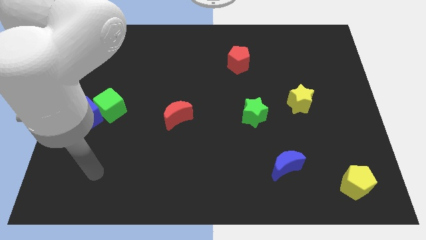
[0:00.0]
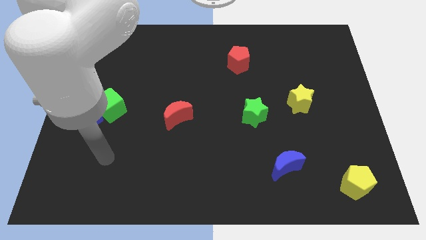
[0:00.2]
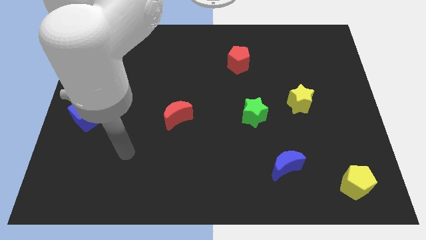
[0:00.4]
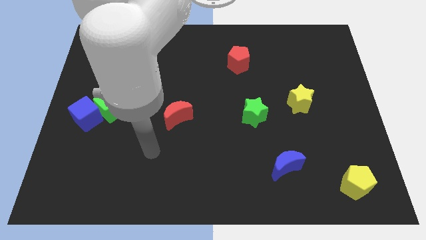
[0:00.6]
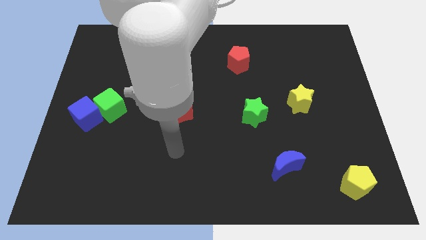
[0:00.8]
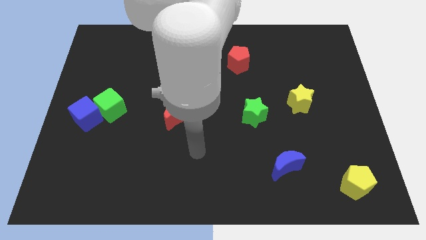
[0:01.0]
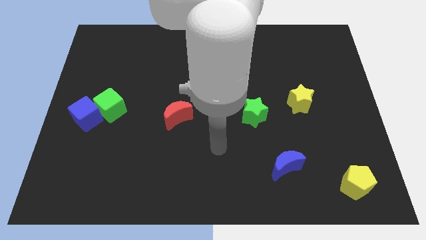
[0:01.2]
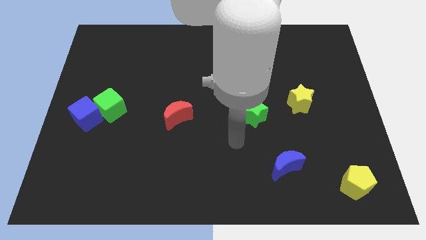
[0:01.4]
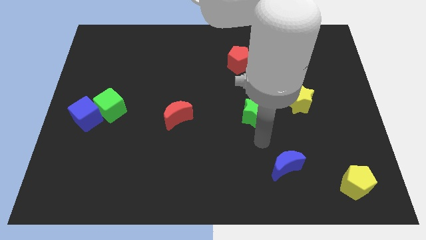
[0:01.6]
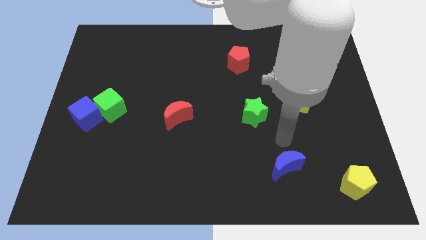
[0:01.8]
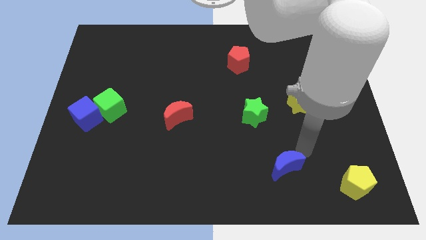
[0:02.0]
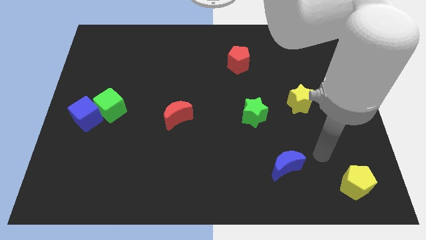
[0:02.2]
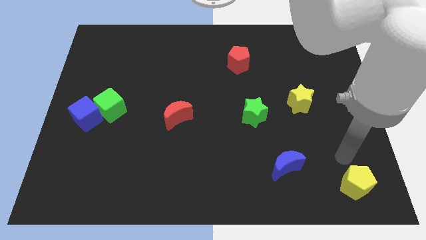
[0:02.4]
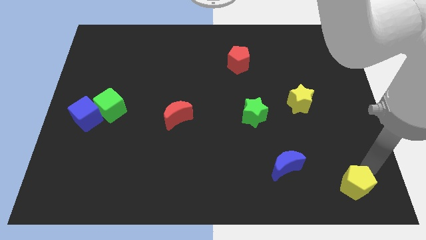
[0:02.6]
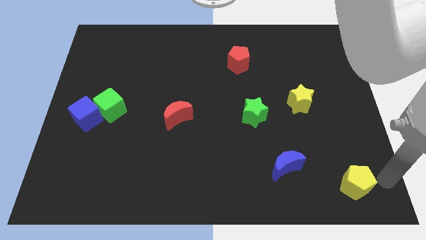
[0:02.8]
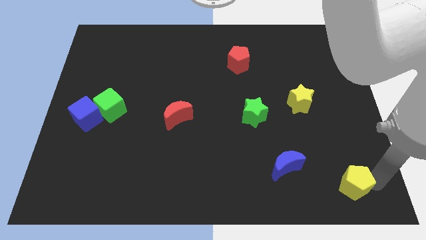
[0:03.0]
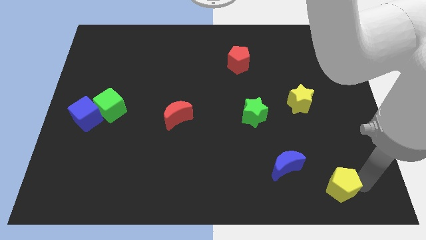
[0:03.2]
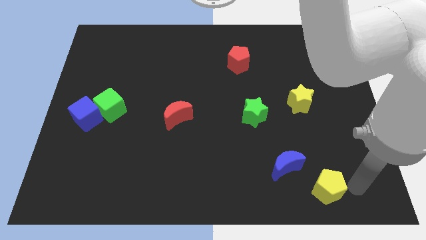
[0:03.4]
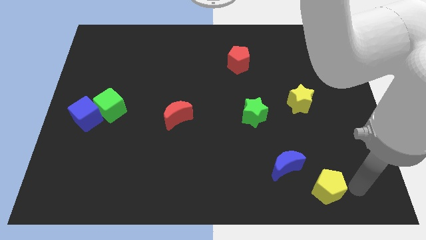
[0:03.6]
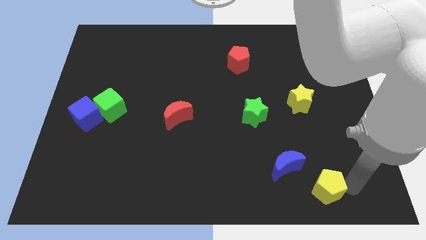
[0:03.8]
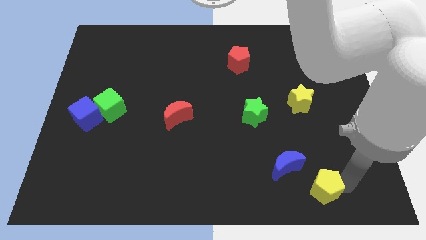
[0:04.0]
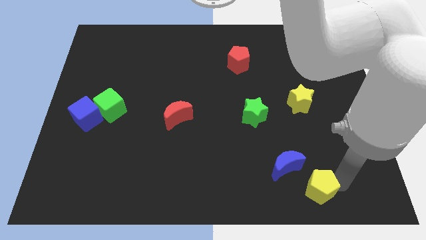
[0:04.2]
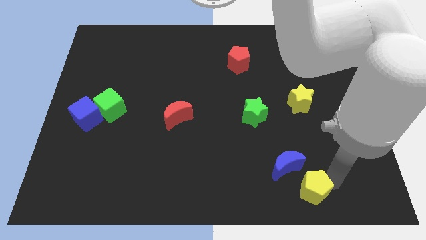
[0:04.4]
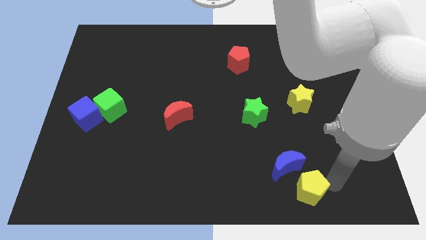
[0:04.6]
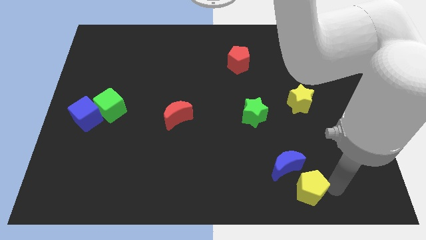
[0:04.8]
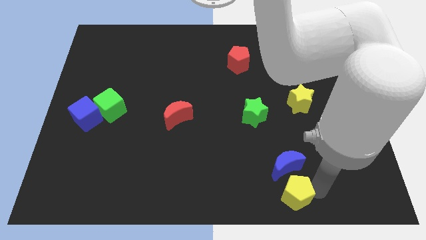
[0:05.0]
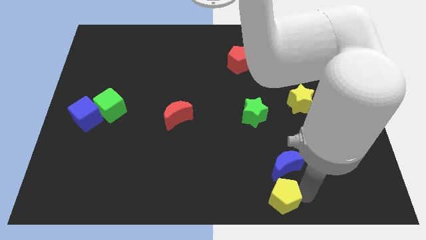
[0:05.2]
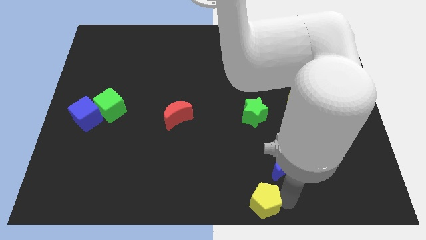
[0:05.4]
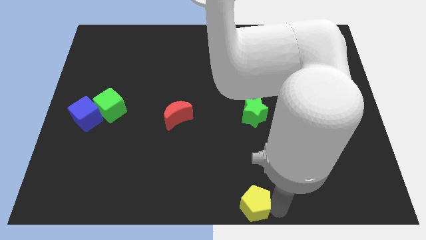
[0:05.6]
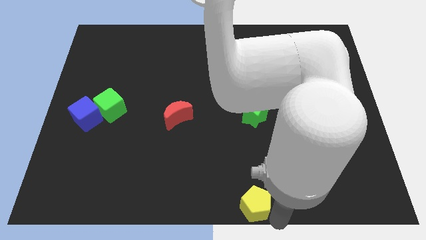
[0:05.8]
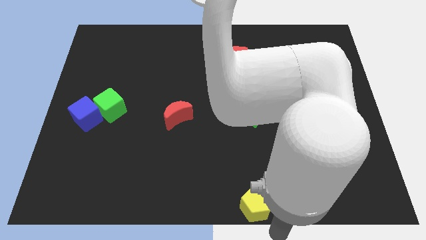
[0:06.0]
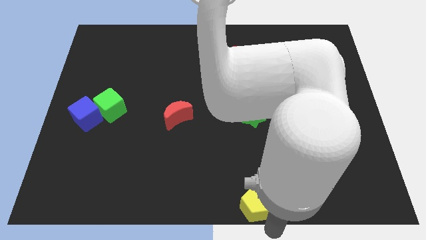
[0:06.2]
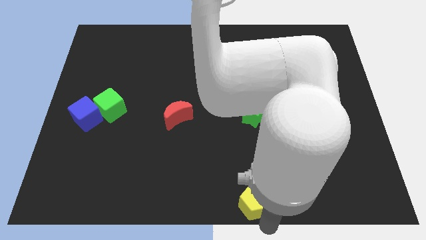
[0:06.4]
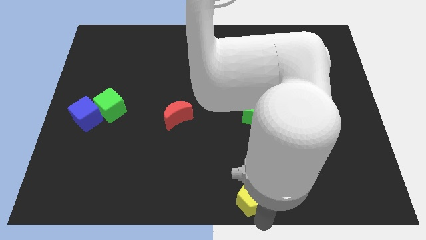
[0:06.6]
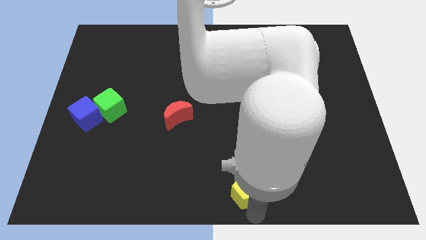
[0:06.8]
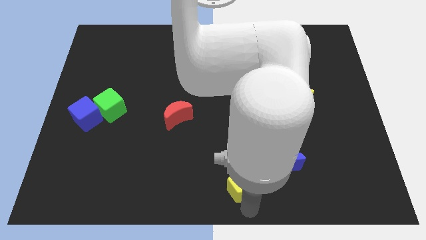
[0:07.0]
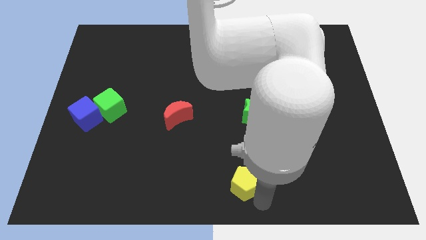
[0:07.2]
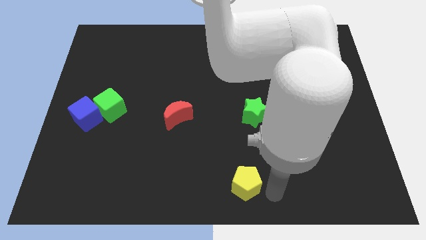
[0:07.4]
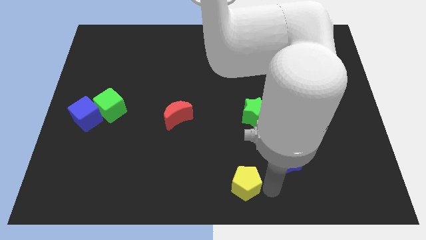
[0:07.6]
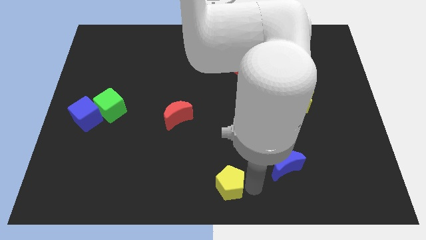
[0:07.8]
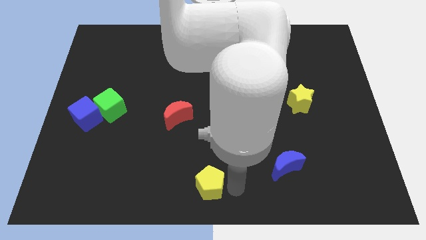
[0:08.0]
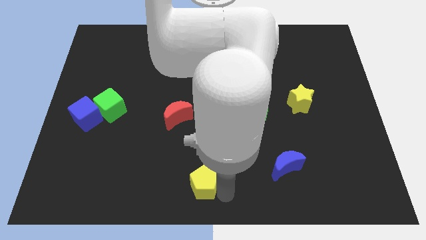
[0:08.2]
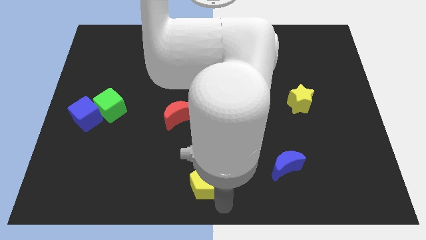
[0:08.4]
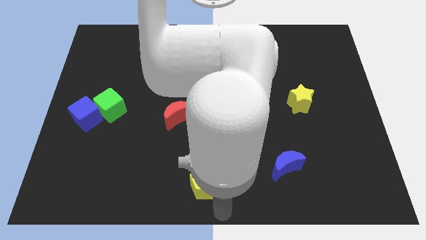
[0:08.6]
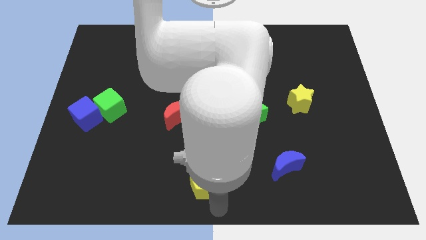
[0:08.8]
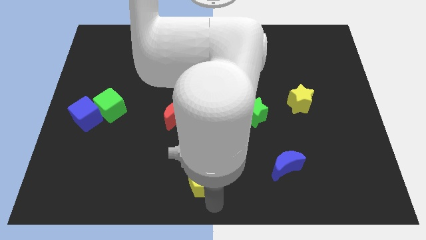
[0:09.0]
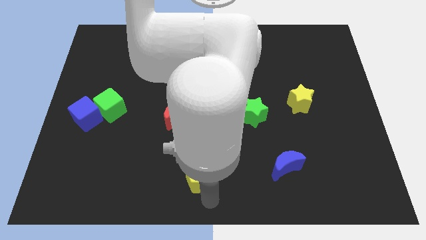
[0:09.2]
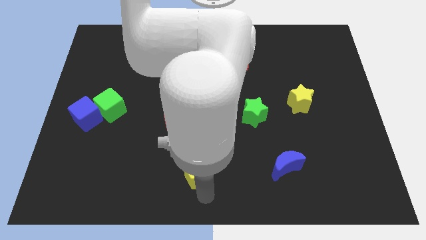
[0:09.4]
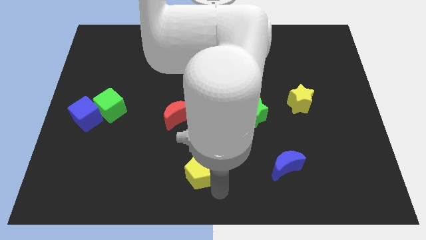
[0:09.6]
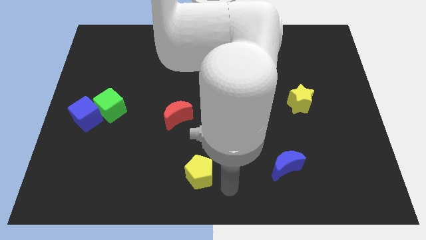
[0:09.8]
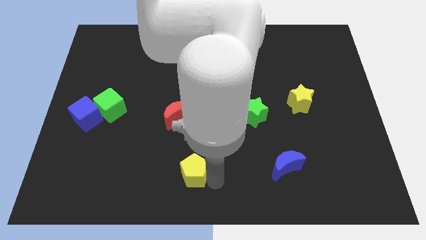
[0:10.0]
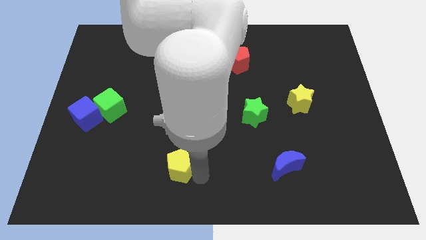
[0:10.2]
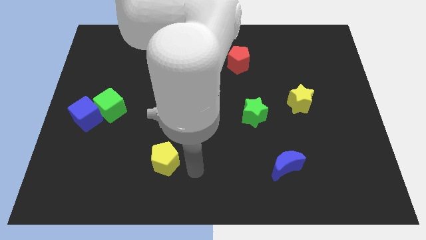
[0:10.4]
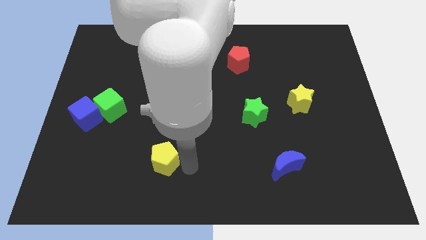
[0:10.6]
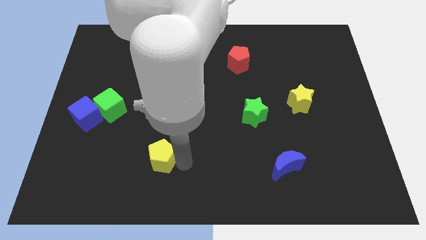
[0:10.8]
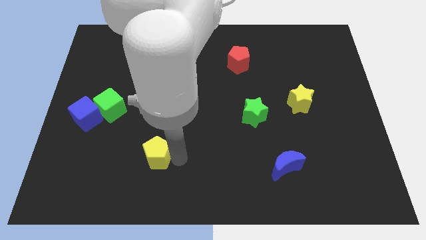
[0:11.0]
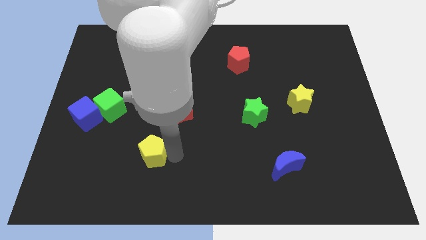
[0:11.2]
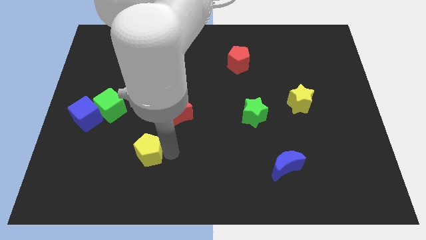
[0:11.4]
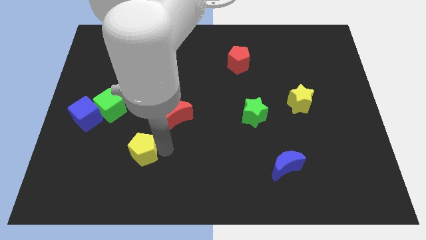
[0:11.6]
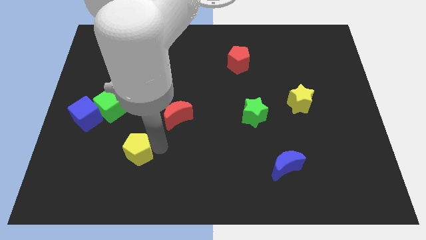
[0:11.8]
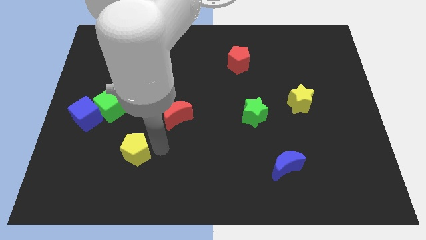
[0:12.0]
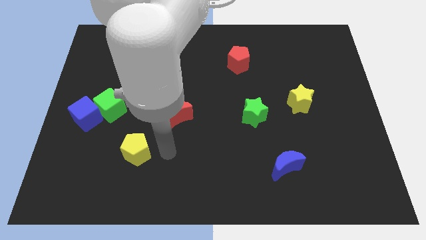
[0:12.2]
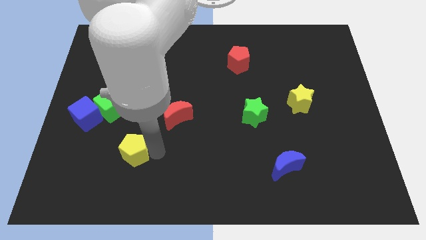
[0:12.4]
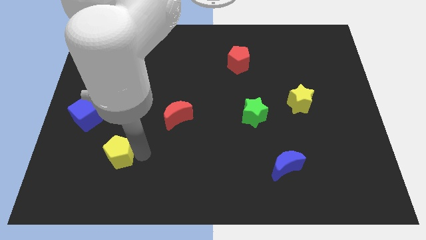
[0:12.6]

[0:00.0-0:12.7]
put the yellow pentagon below the green cube
